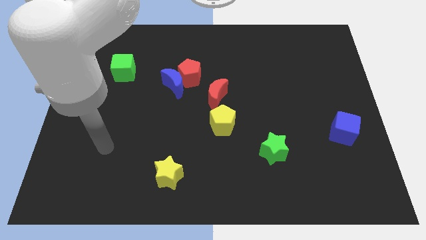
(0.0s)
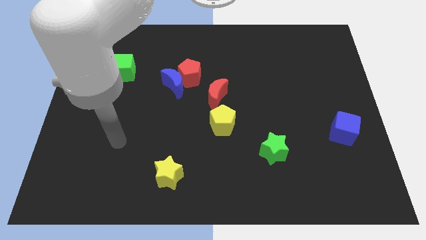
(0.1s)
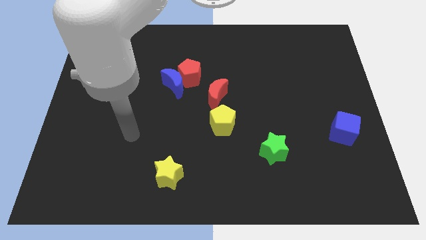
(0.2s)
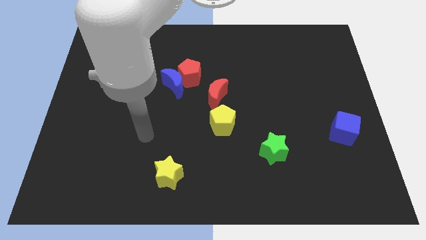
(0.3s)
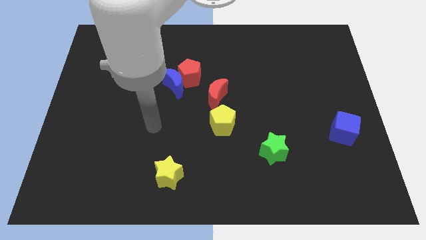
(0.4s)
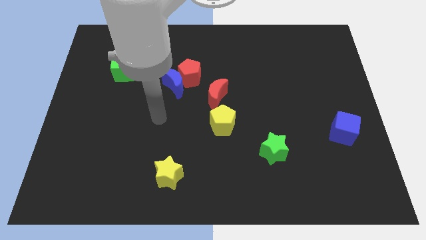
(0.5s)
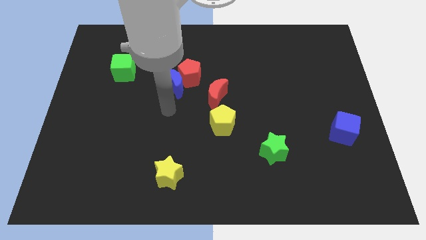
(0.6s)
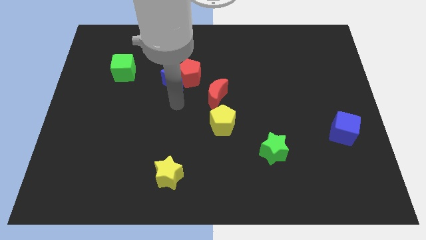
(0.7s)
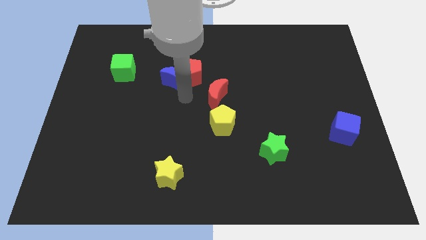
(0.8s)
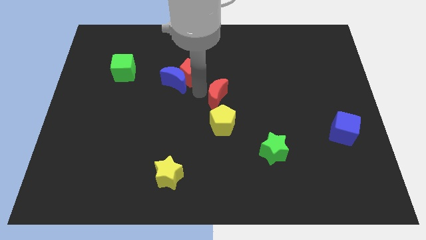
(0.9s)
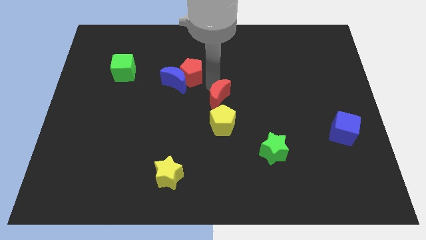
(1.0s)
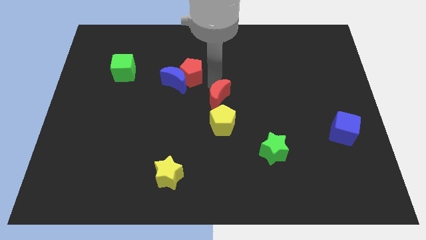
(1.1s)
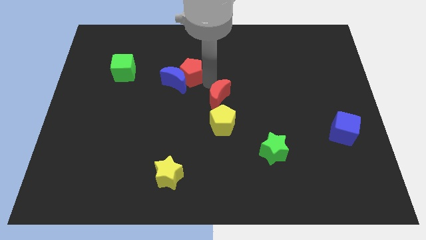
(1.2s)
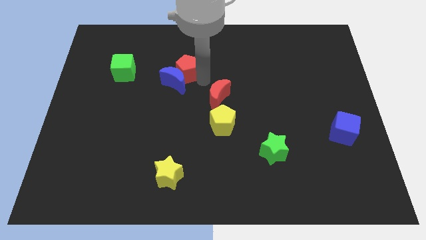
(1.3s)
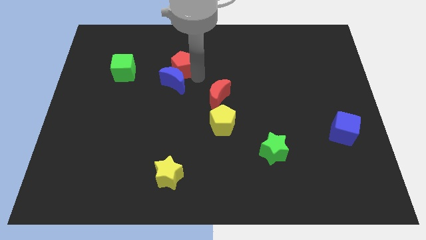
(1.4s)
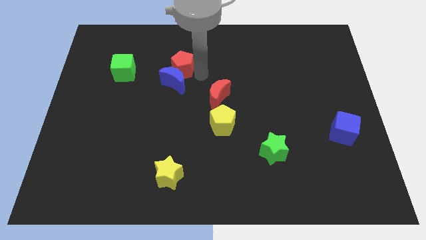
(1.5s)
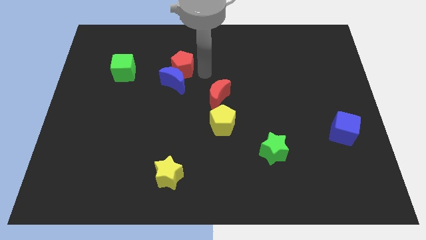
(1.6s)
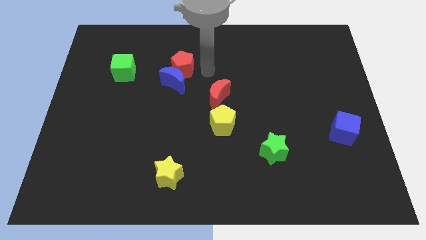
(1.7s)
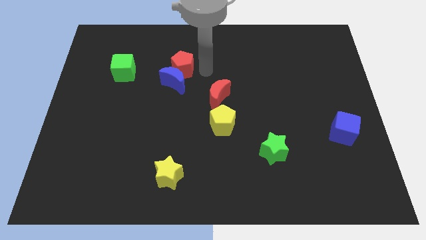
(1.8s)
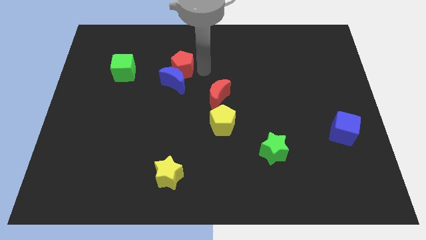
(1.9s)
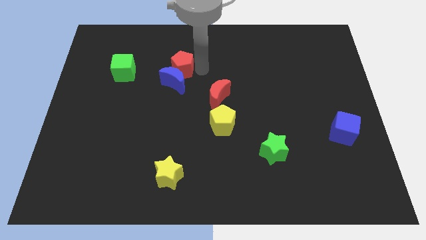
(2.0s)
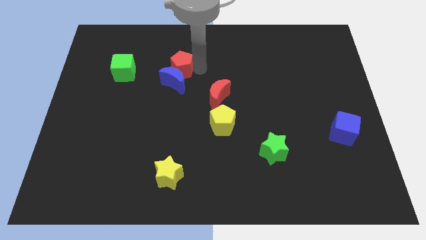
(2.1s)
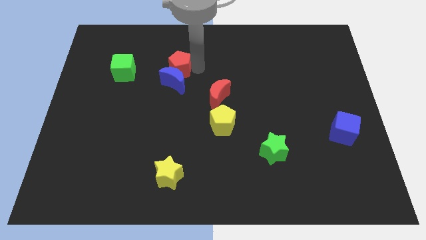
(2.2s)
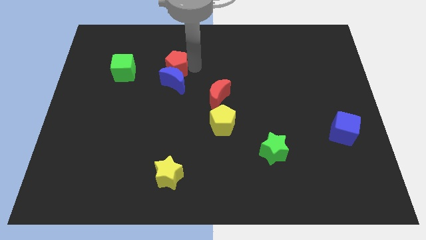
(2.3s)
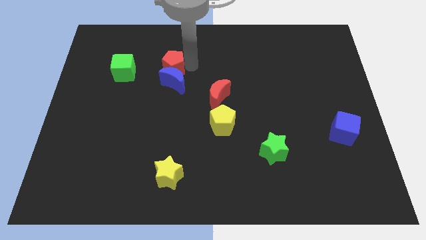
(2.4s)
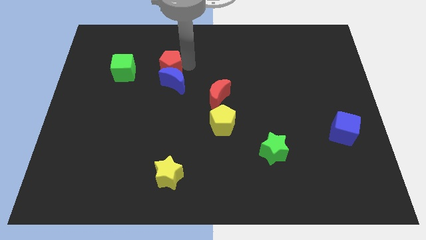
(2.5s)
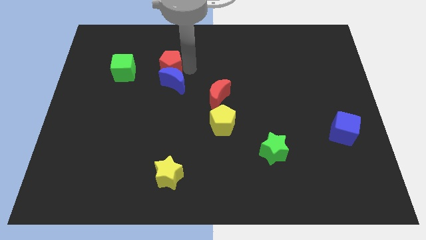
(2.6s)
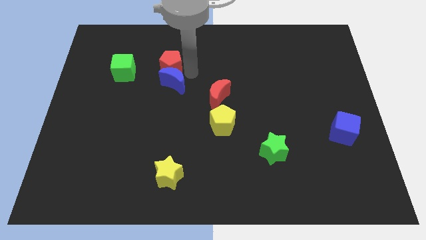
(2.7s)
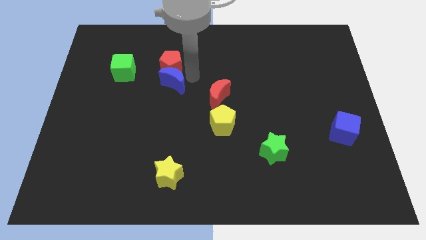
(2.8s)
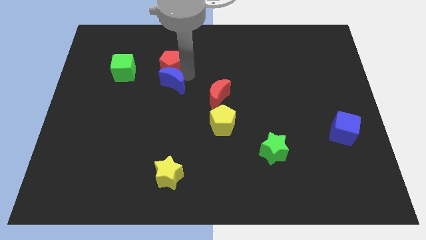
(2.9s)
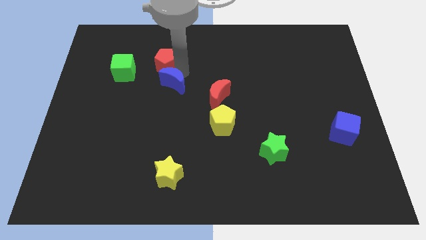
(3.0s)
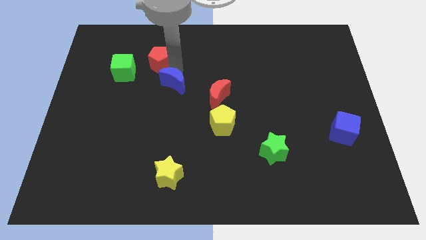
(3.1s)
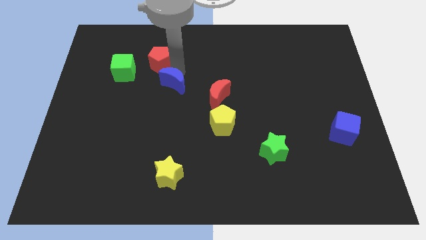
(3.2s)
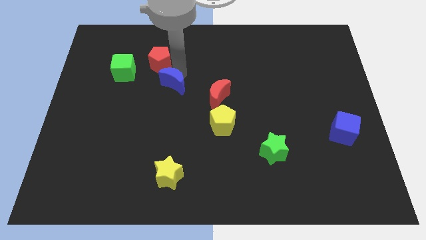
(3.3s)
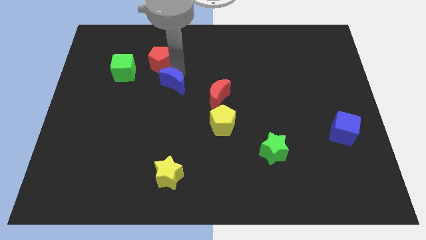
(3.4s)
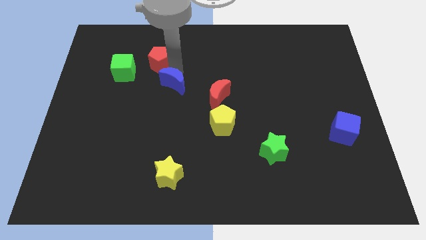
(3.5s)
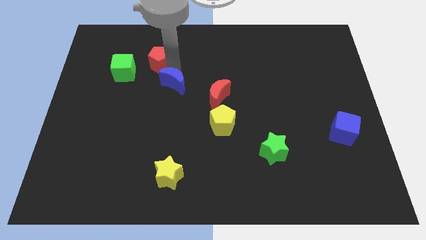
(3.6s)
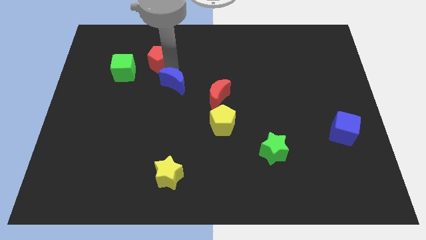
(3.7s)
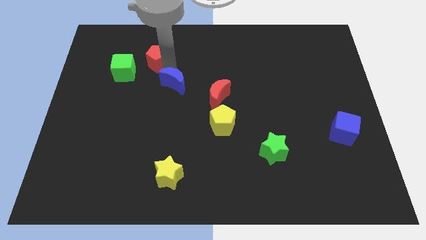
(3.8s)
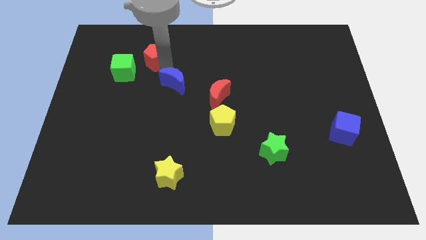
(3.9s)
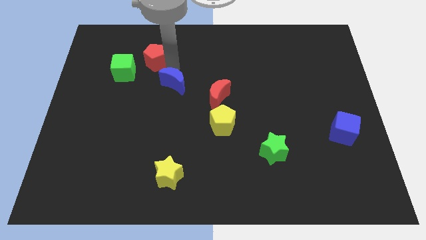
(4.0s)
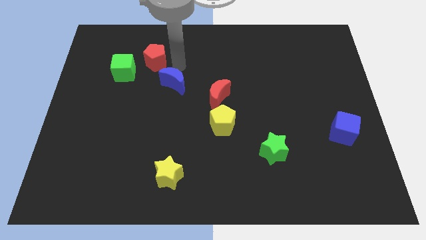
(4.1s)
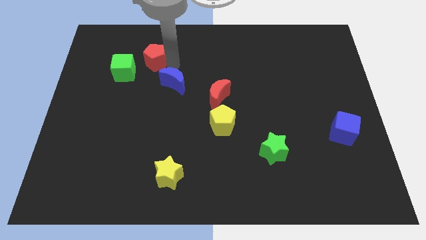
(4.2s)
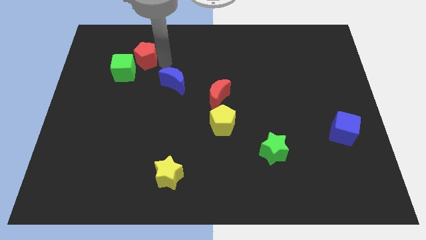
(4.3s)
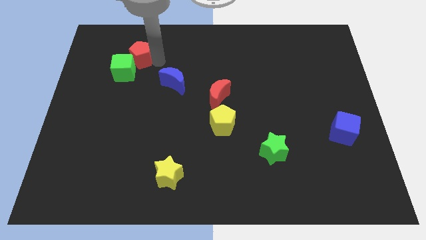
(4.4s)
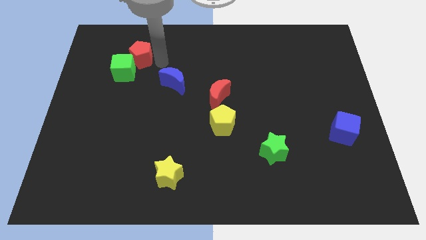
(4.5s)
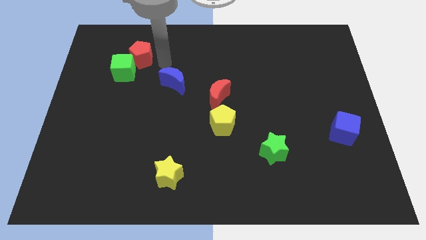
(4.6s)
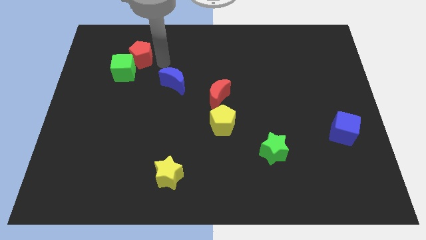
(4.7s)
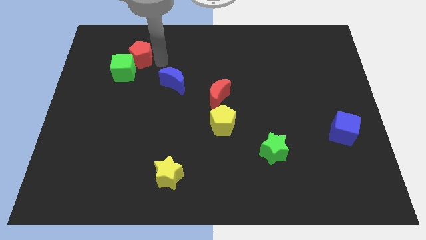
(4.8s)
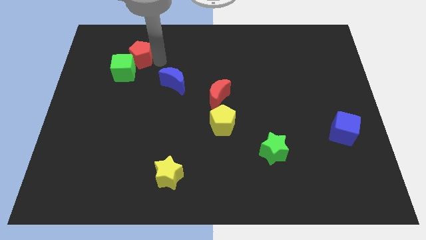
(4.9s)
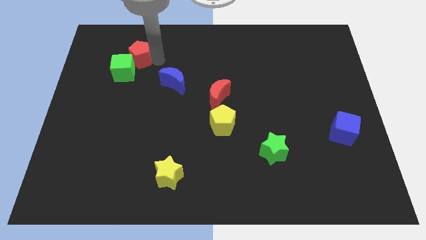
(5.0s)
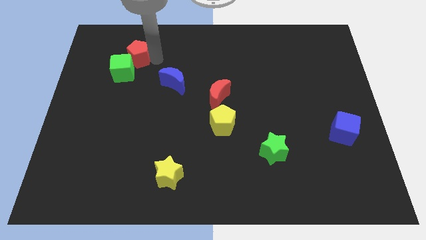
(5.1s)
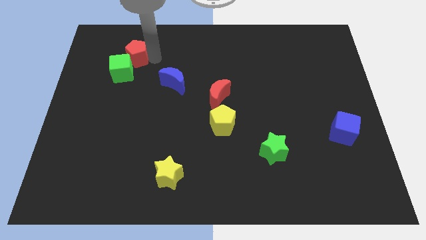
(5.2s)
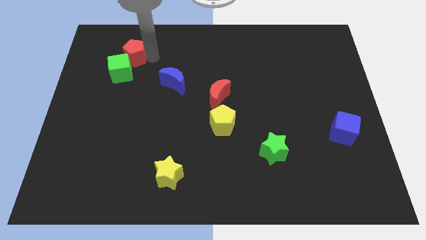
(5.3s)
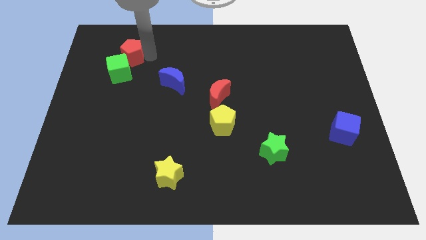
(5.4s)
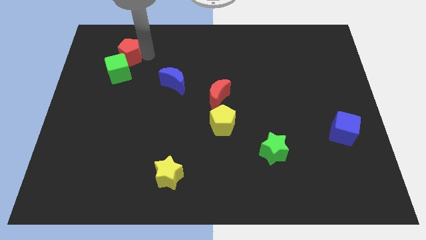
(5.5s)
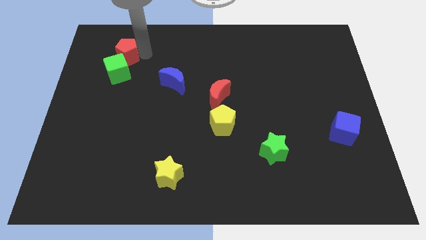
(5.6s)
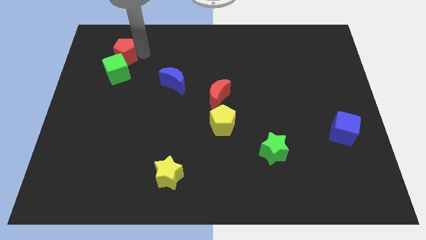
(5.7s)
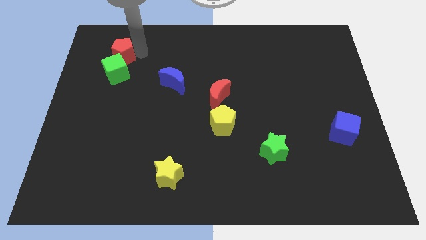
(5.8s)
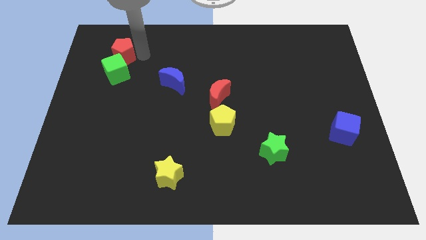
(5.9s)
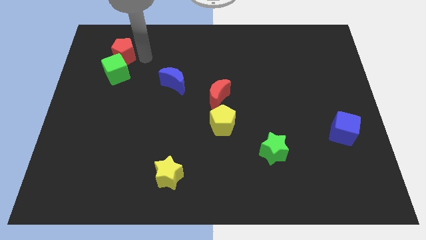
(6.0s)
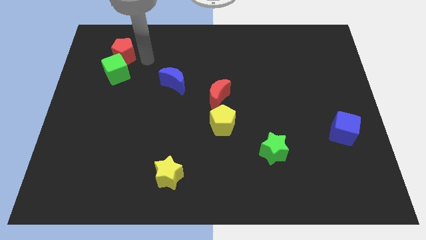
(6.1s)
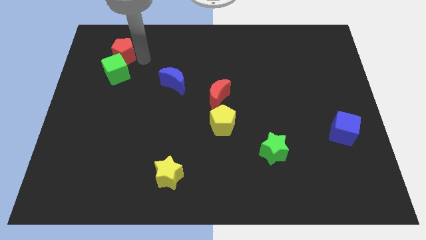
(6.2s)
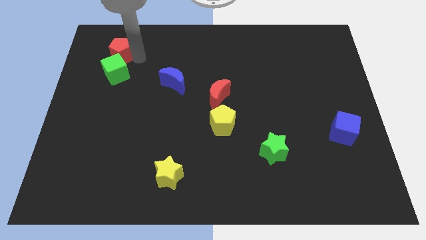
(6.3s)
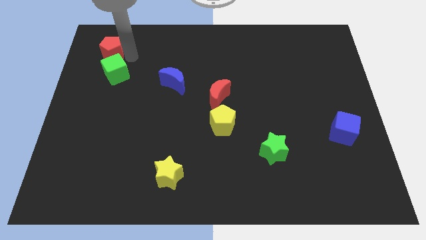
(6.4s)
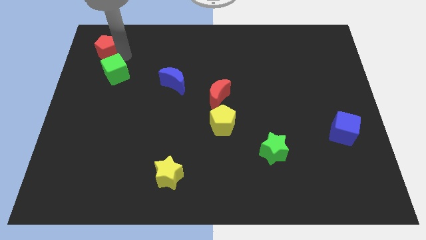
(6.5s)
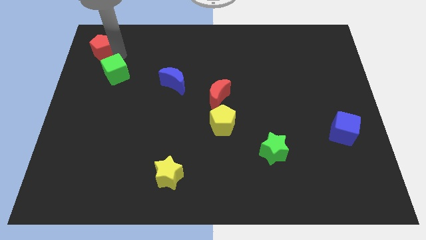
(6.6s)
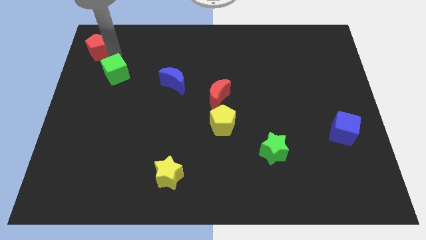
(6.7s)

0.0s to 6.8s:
push the red pentagon to the upper left corner

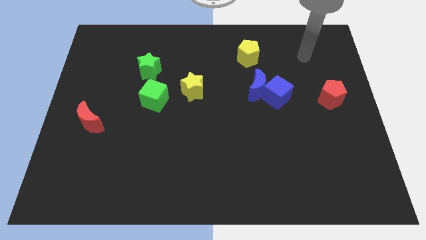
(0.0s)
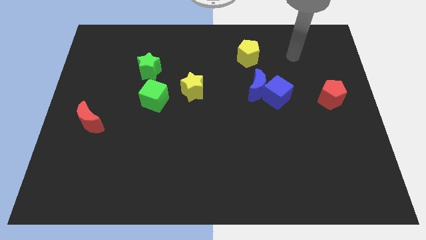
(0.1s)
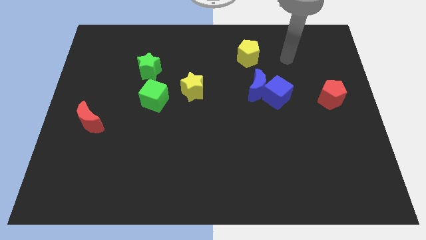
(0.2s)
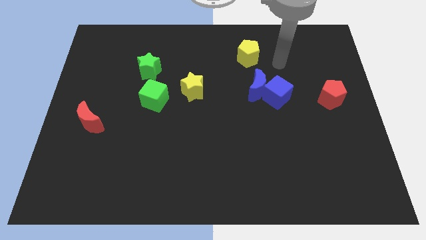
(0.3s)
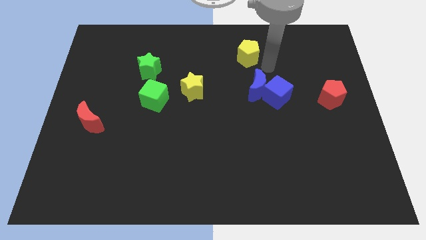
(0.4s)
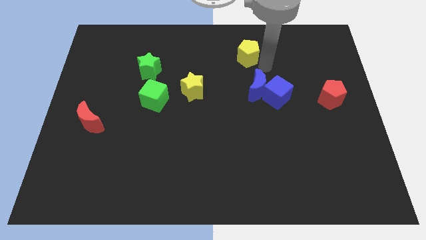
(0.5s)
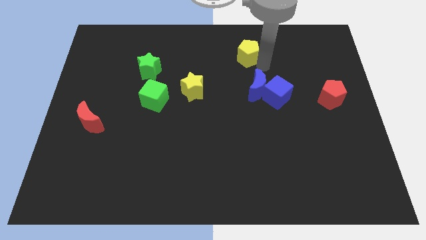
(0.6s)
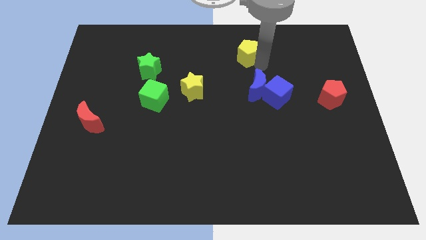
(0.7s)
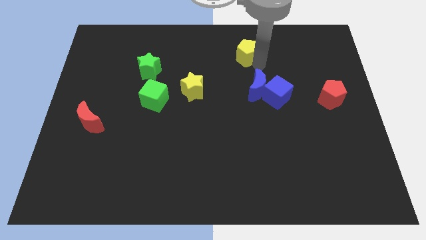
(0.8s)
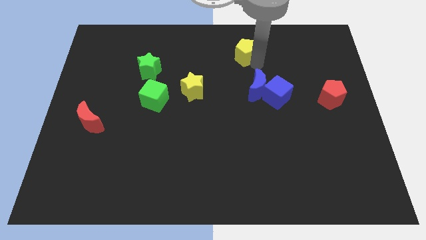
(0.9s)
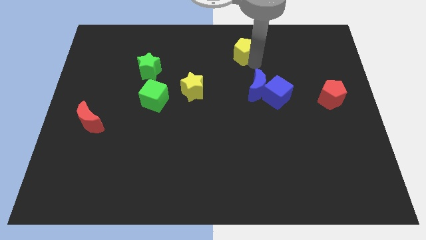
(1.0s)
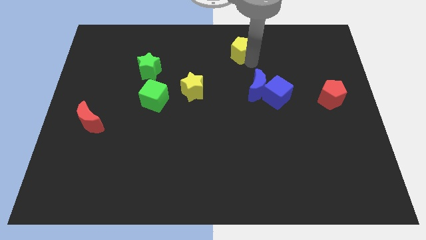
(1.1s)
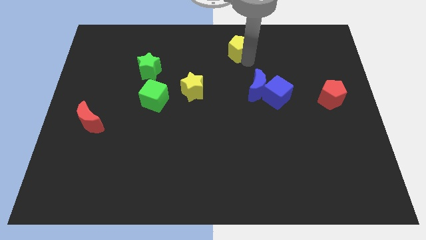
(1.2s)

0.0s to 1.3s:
push the yellow pentagon to the top
